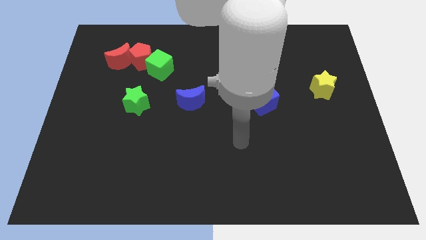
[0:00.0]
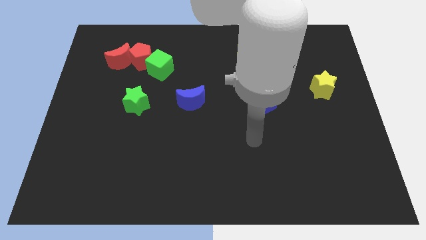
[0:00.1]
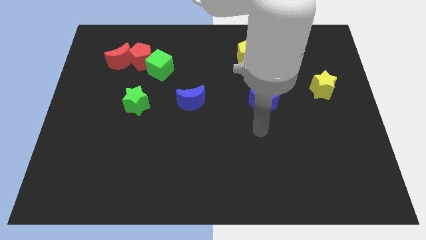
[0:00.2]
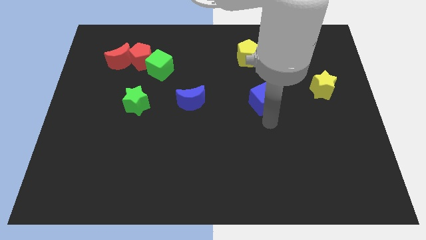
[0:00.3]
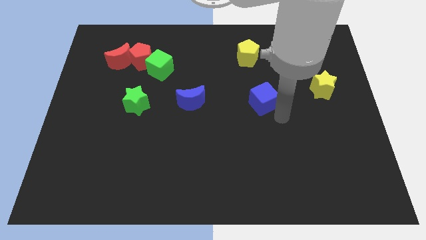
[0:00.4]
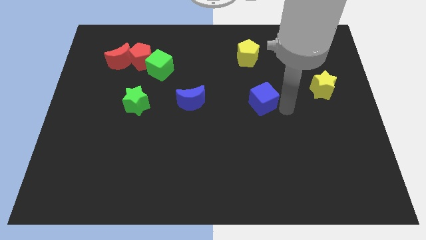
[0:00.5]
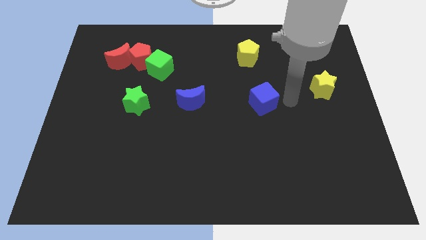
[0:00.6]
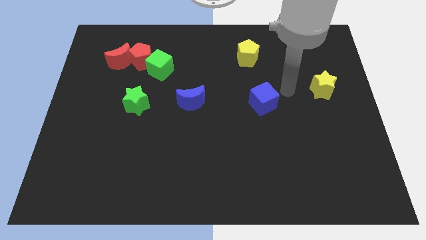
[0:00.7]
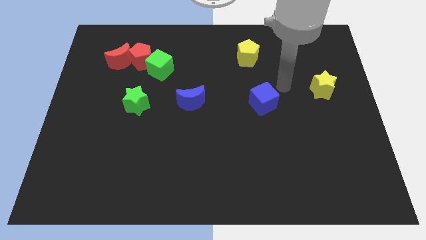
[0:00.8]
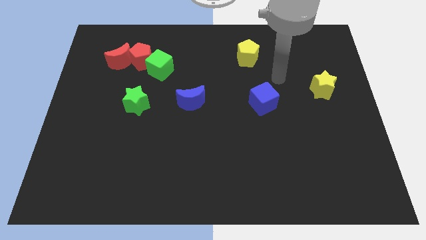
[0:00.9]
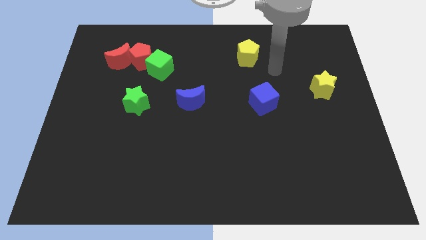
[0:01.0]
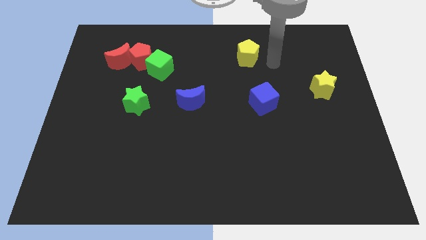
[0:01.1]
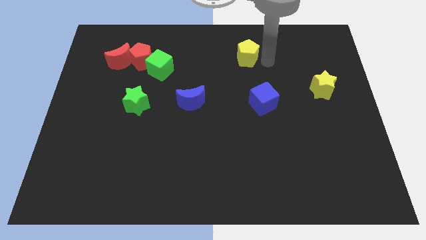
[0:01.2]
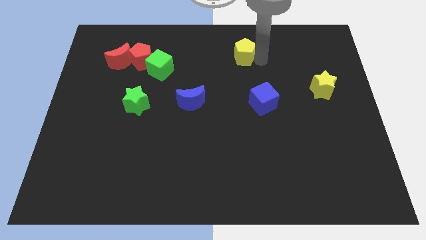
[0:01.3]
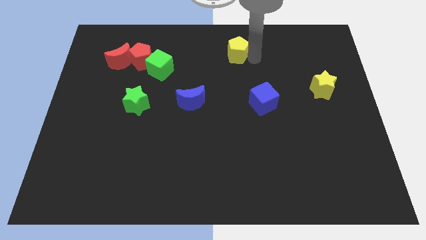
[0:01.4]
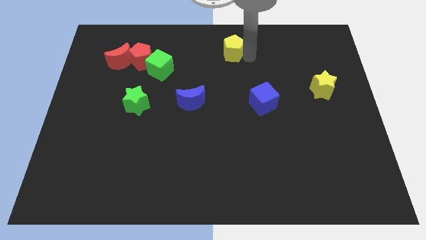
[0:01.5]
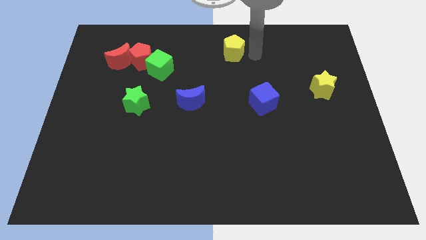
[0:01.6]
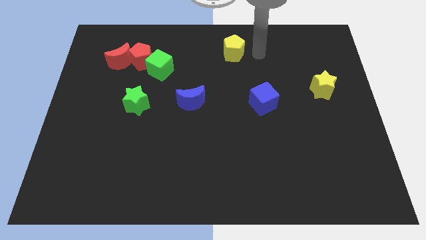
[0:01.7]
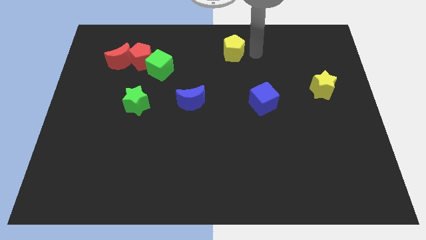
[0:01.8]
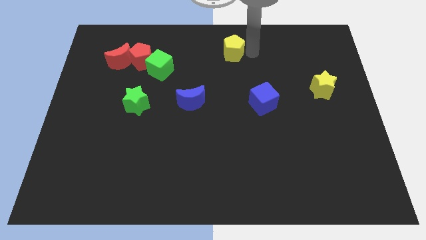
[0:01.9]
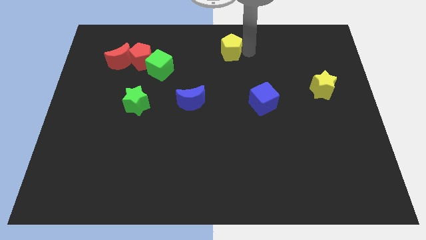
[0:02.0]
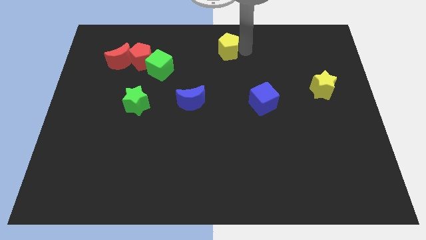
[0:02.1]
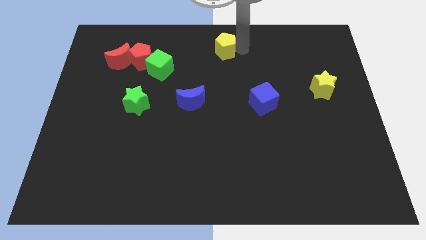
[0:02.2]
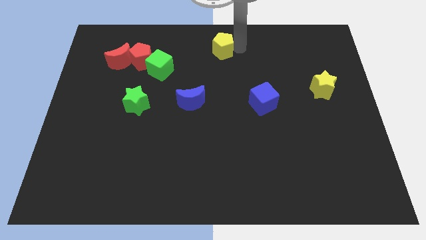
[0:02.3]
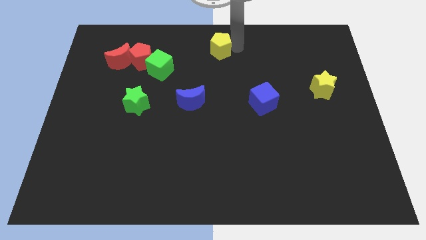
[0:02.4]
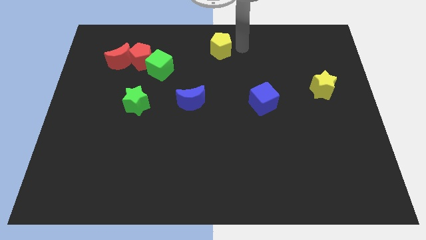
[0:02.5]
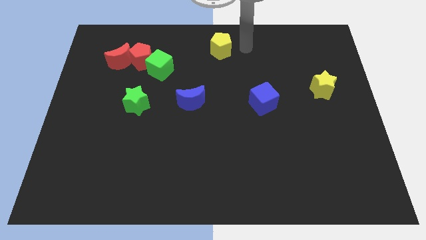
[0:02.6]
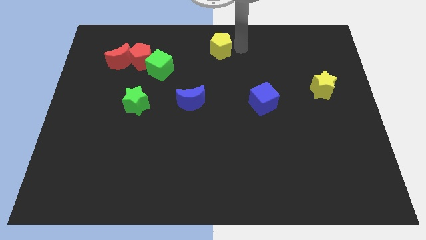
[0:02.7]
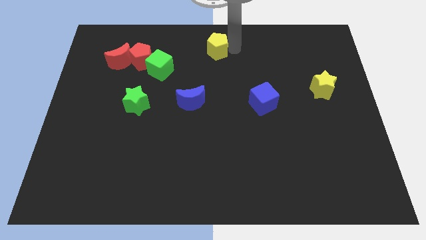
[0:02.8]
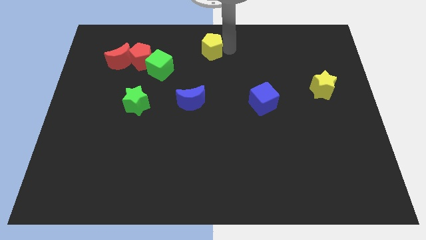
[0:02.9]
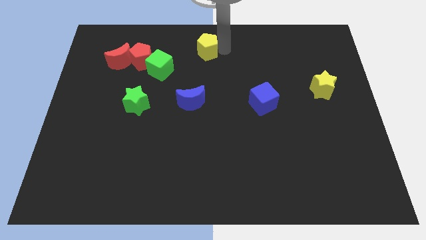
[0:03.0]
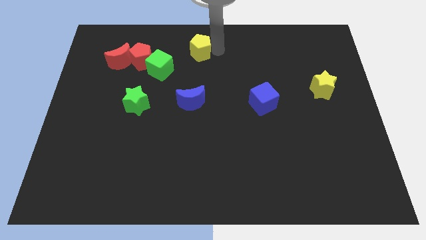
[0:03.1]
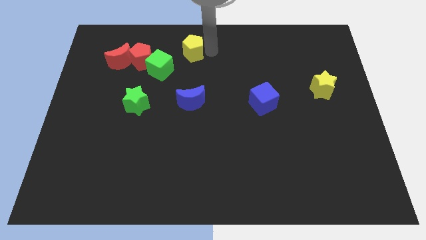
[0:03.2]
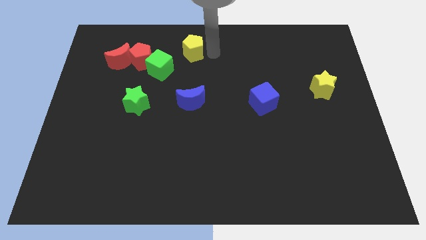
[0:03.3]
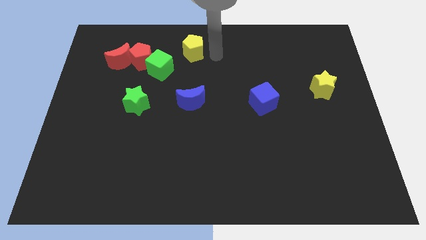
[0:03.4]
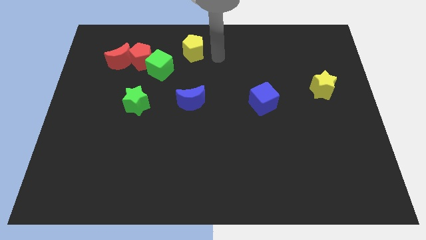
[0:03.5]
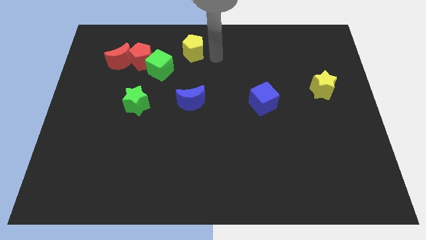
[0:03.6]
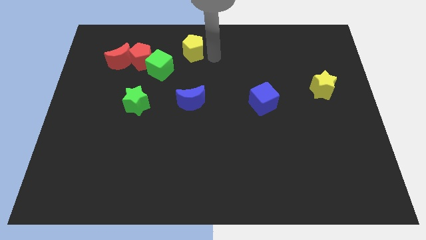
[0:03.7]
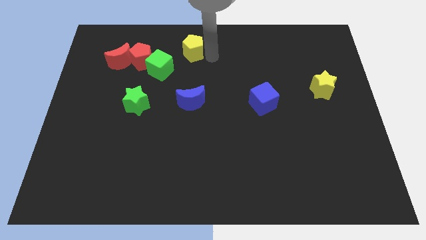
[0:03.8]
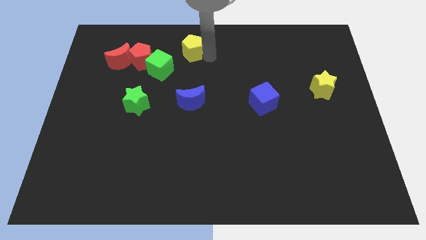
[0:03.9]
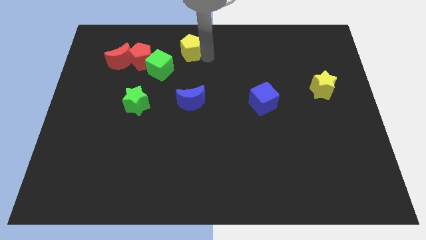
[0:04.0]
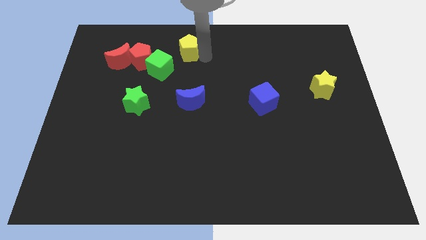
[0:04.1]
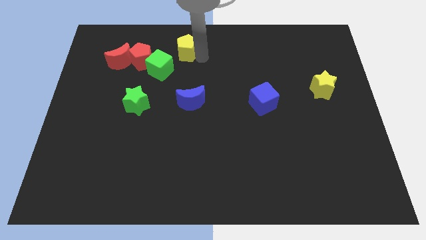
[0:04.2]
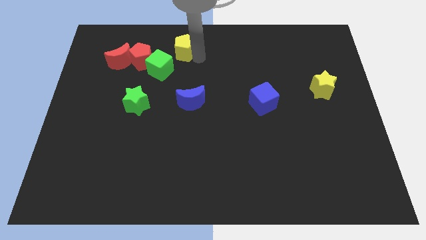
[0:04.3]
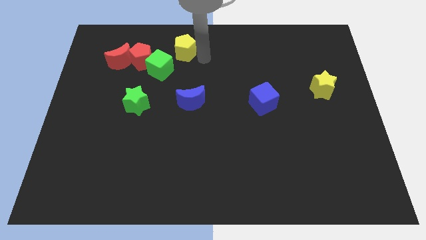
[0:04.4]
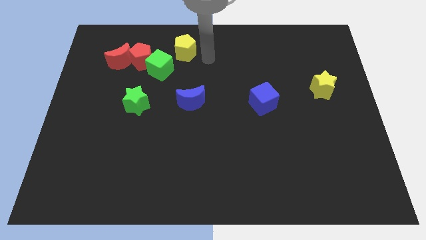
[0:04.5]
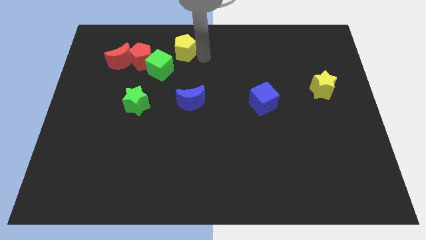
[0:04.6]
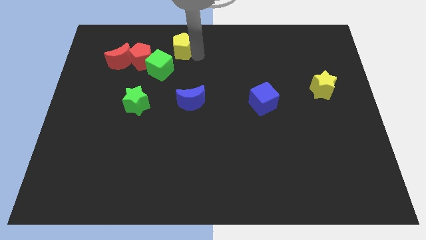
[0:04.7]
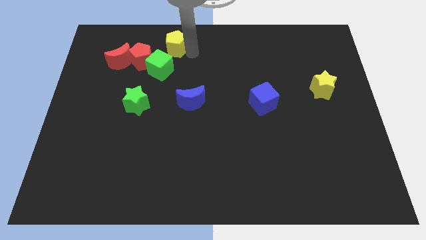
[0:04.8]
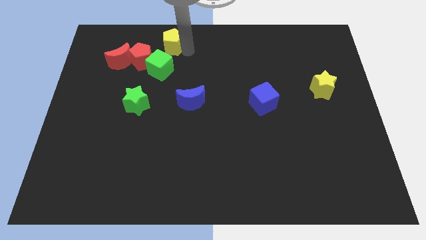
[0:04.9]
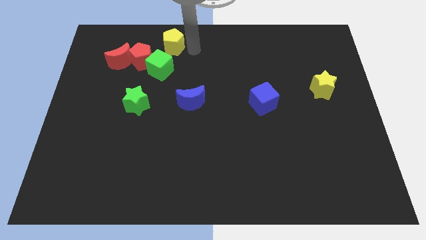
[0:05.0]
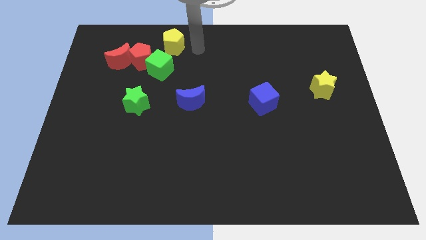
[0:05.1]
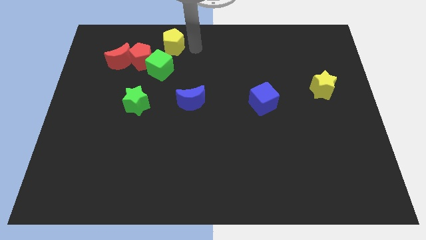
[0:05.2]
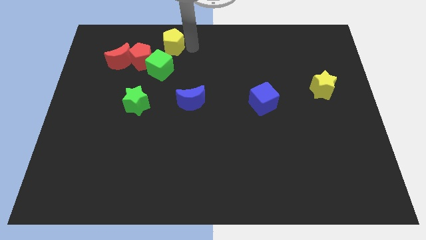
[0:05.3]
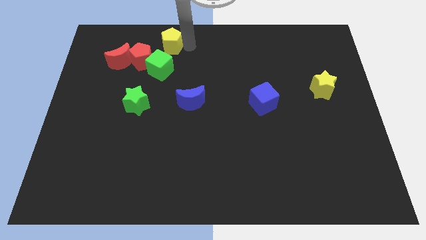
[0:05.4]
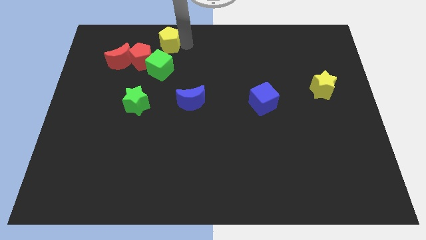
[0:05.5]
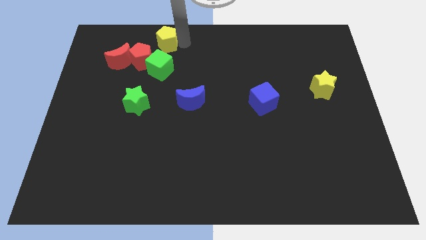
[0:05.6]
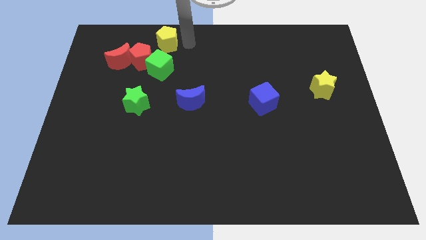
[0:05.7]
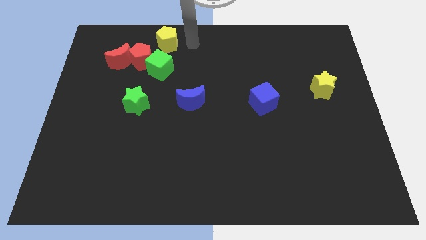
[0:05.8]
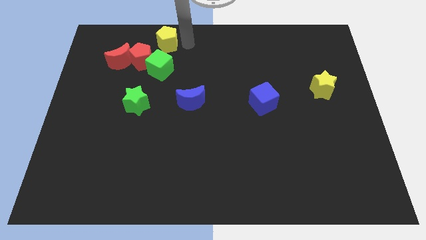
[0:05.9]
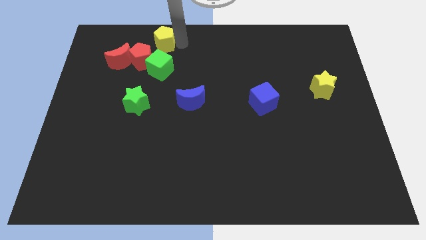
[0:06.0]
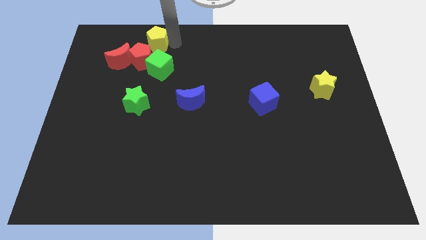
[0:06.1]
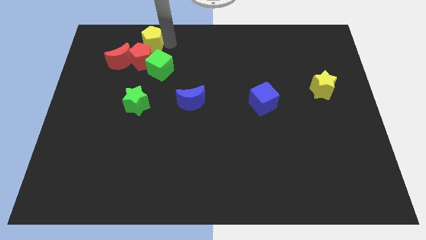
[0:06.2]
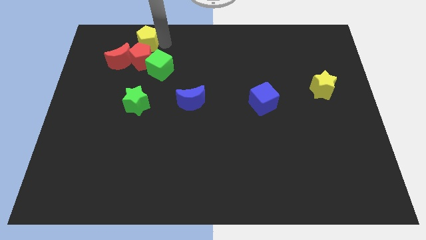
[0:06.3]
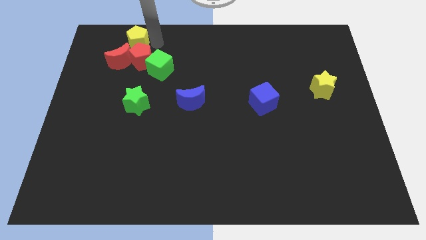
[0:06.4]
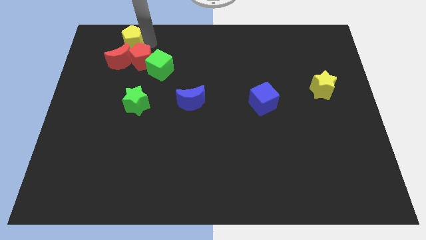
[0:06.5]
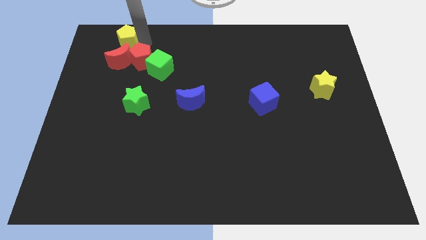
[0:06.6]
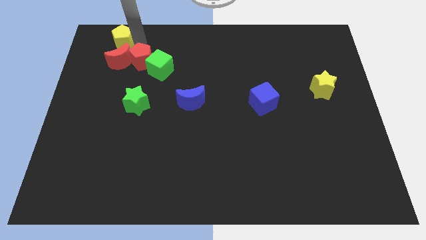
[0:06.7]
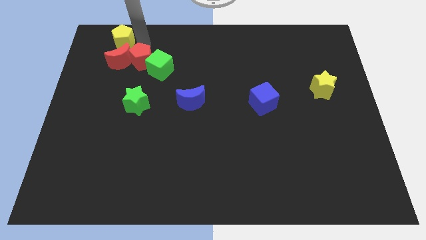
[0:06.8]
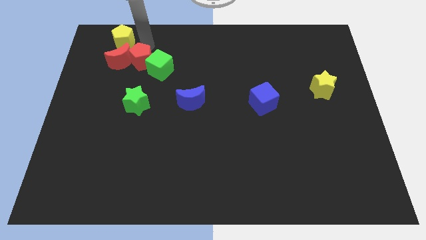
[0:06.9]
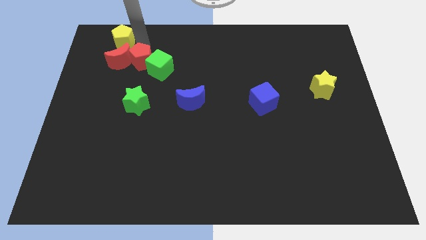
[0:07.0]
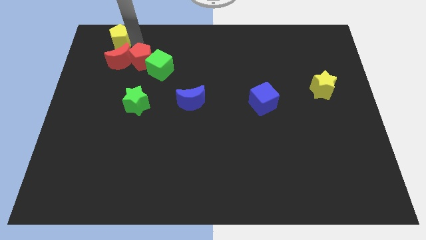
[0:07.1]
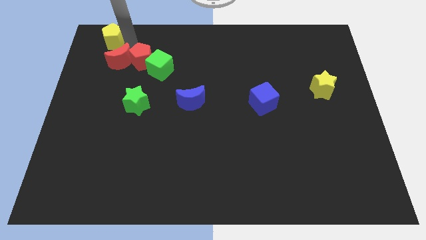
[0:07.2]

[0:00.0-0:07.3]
slide the yellow pentagon to the upper left corner
